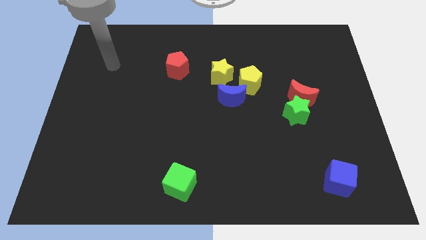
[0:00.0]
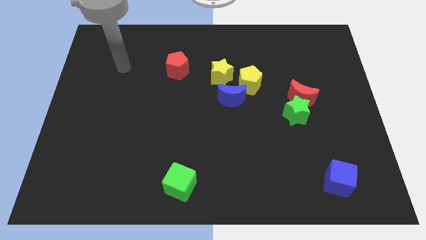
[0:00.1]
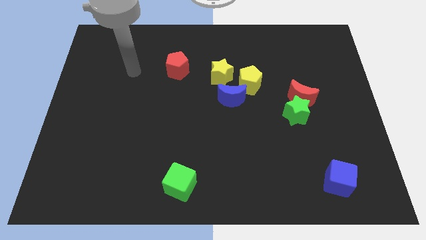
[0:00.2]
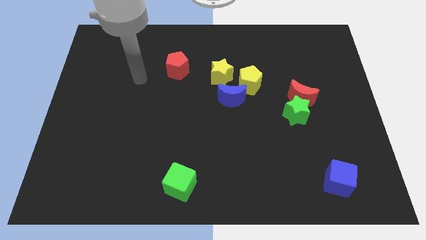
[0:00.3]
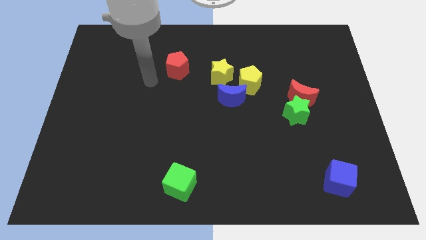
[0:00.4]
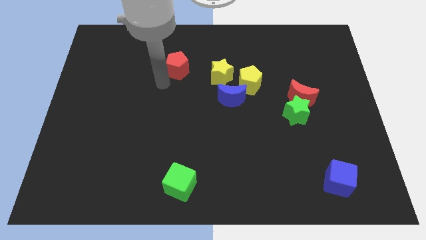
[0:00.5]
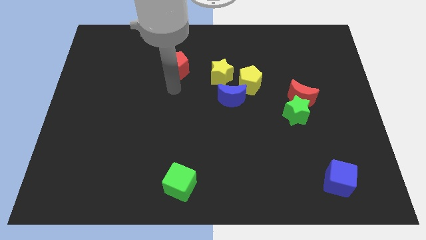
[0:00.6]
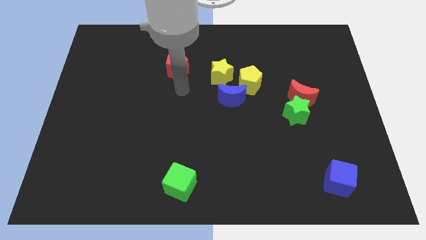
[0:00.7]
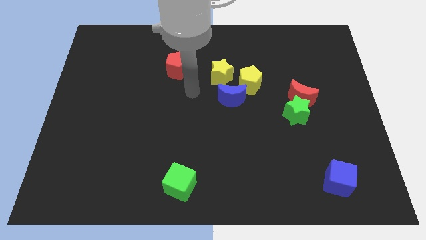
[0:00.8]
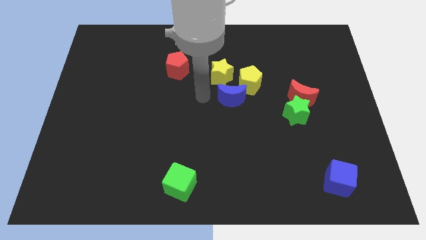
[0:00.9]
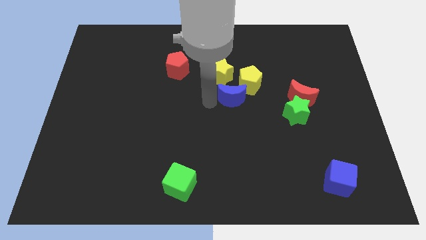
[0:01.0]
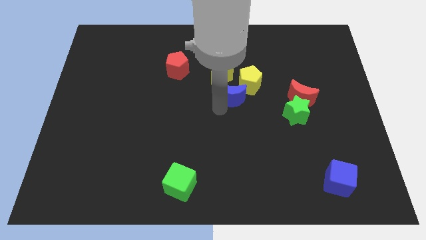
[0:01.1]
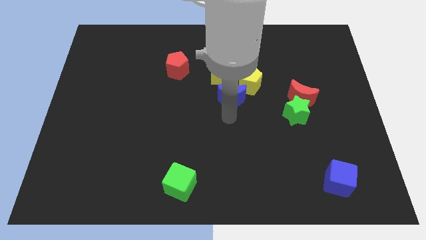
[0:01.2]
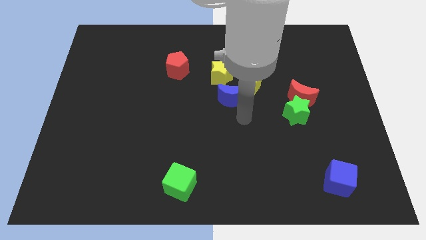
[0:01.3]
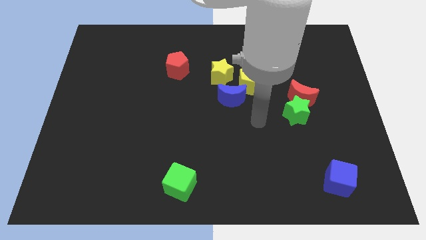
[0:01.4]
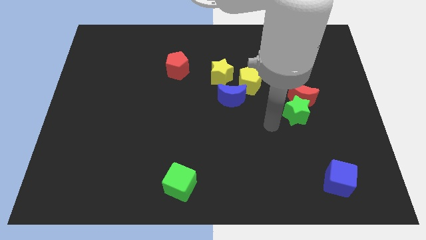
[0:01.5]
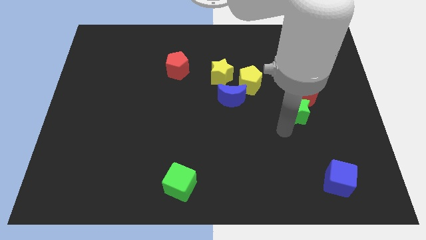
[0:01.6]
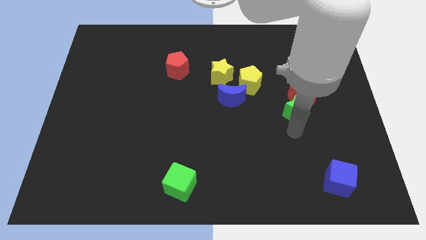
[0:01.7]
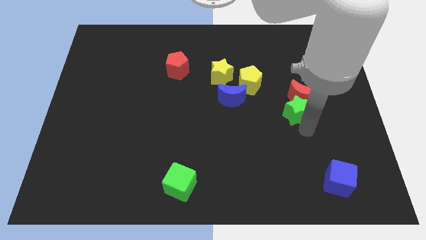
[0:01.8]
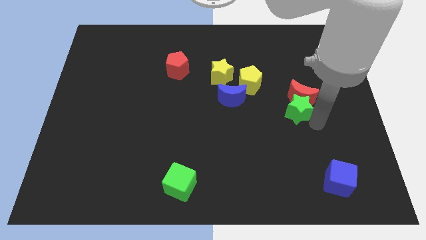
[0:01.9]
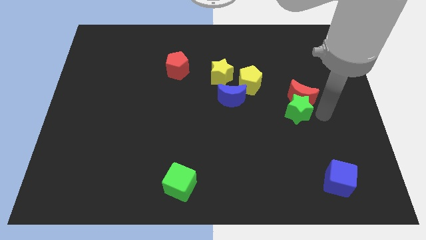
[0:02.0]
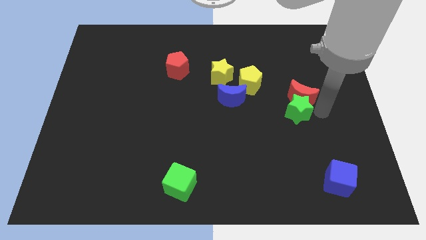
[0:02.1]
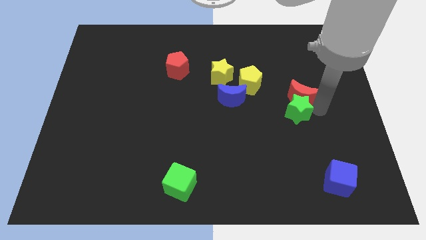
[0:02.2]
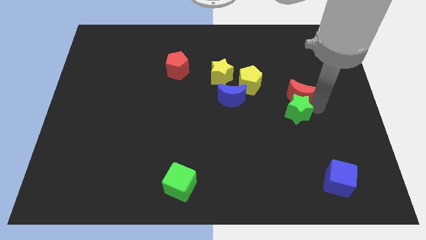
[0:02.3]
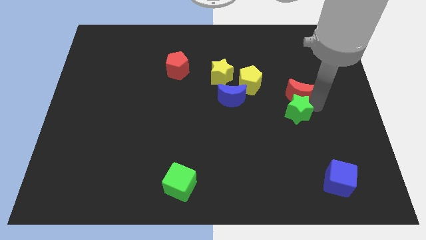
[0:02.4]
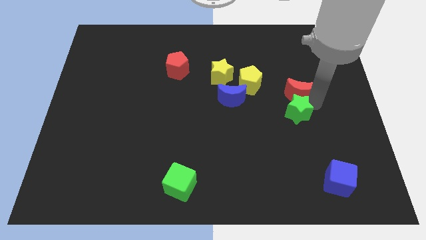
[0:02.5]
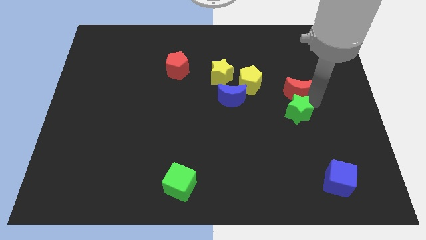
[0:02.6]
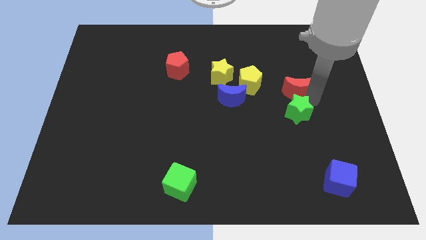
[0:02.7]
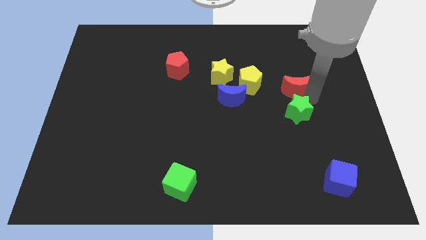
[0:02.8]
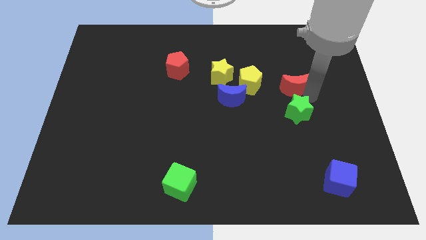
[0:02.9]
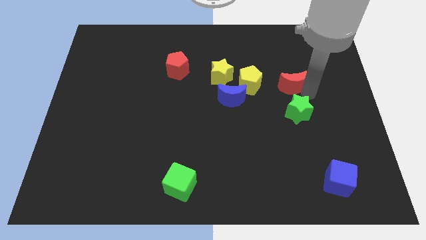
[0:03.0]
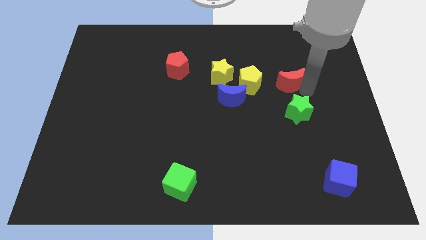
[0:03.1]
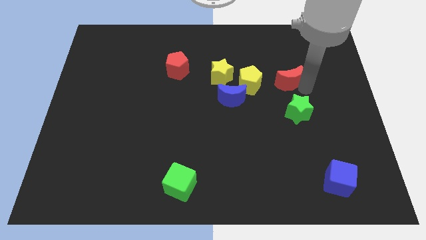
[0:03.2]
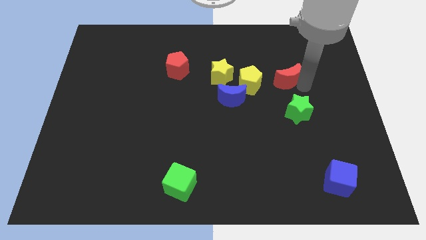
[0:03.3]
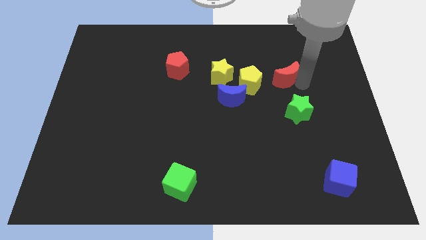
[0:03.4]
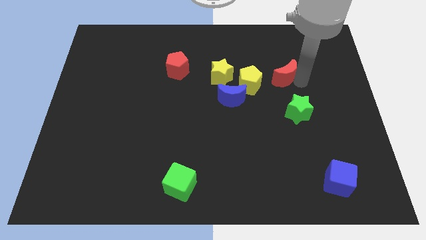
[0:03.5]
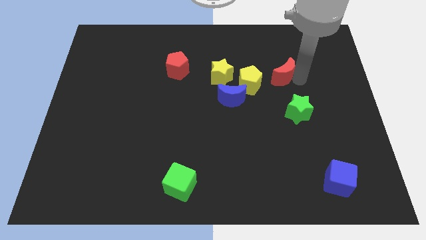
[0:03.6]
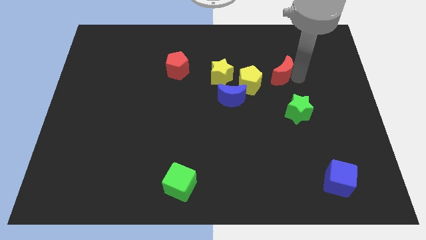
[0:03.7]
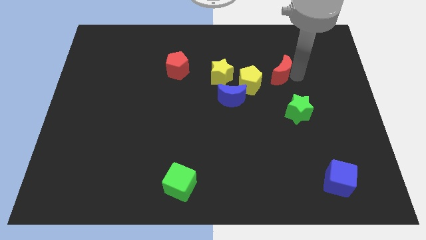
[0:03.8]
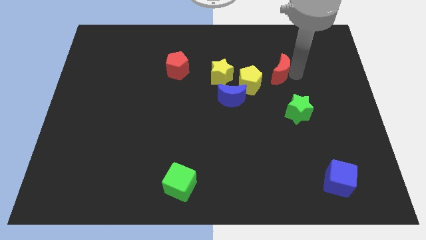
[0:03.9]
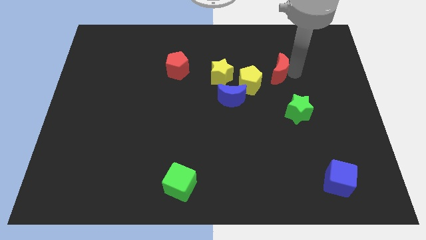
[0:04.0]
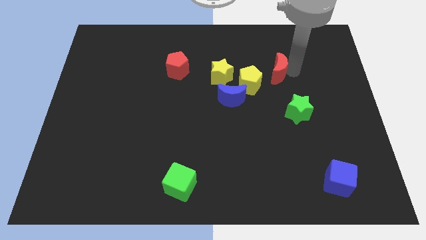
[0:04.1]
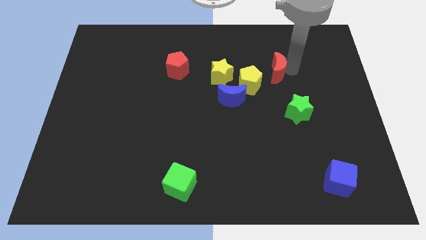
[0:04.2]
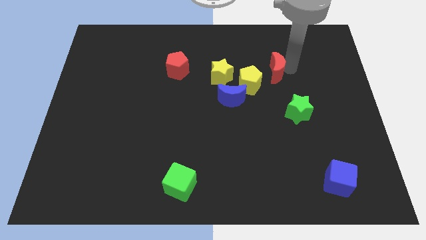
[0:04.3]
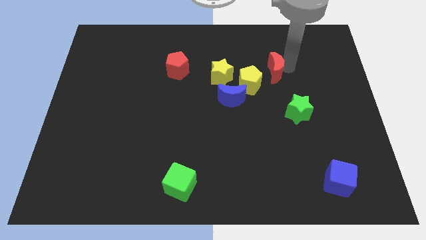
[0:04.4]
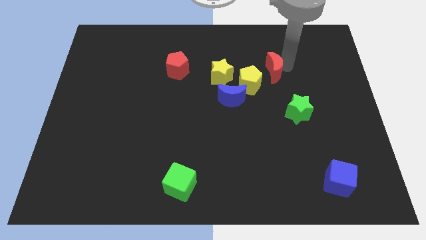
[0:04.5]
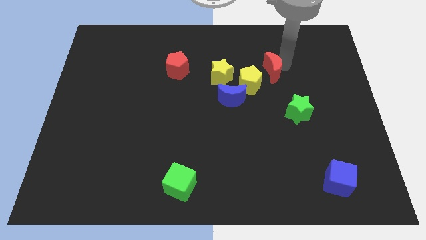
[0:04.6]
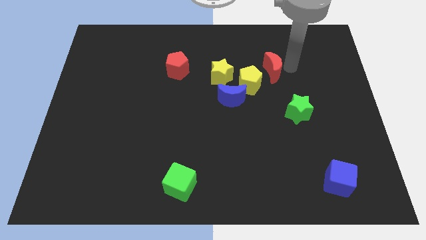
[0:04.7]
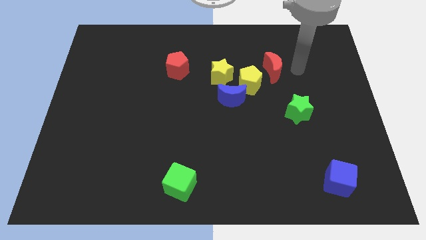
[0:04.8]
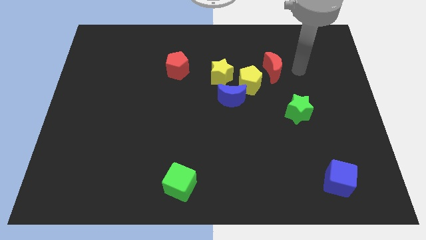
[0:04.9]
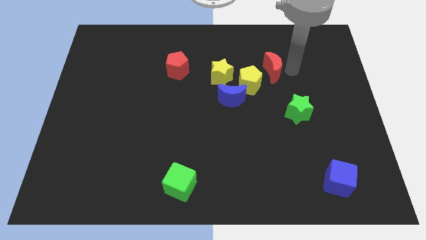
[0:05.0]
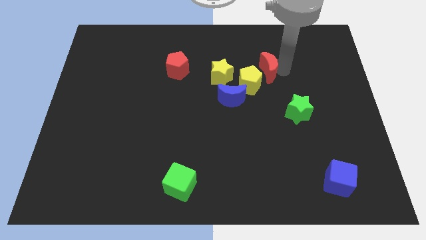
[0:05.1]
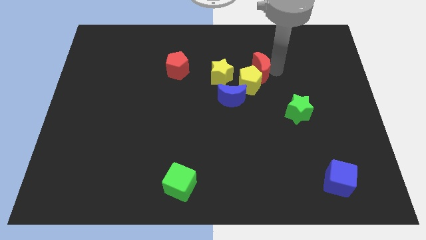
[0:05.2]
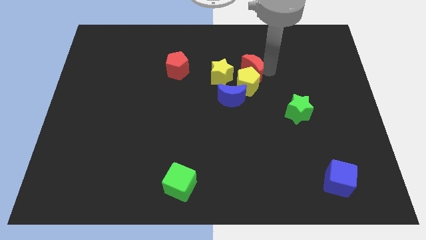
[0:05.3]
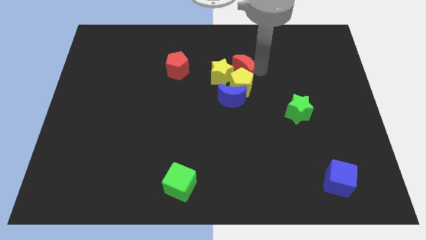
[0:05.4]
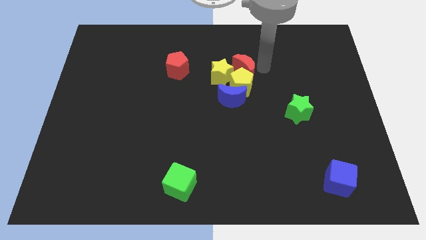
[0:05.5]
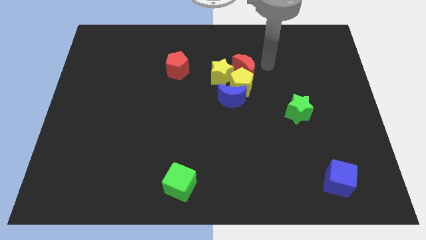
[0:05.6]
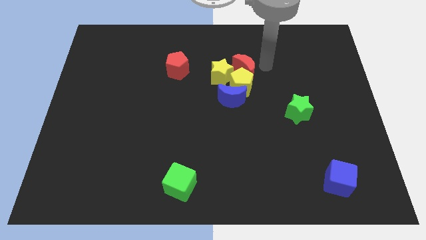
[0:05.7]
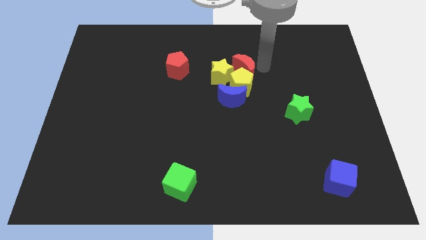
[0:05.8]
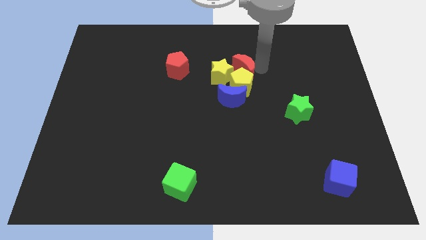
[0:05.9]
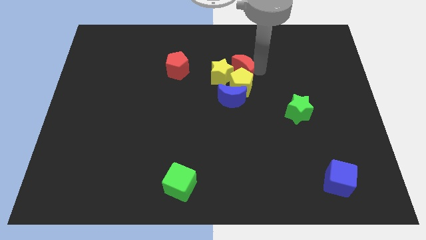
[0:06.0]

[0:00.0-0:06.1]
put the red moon to the yellow star
